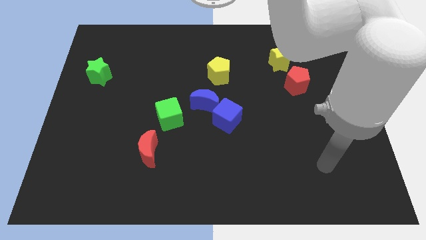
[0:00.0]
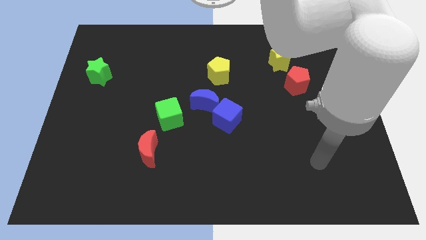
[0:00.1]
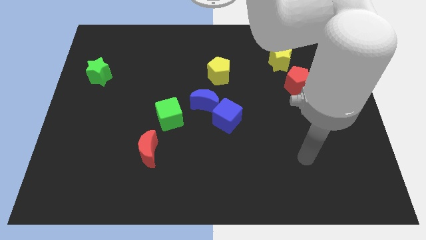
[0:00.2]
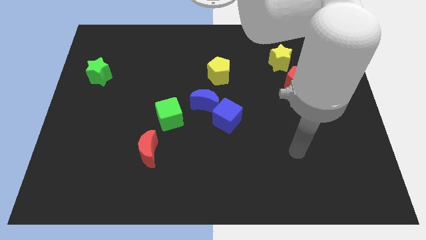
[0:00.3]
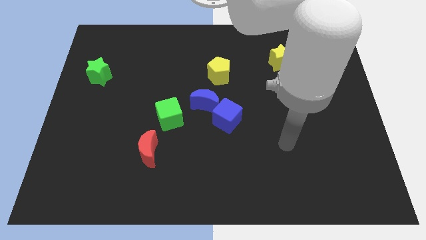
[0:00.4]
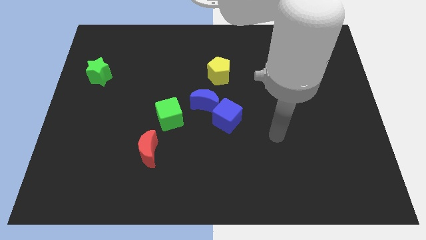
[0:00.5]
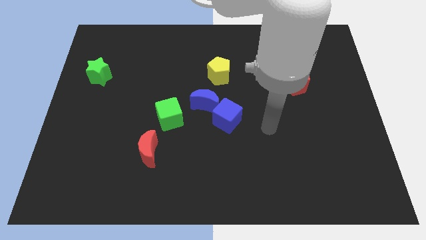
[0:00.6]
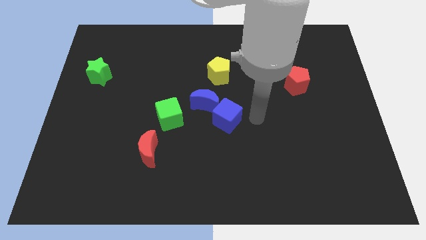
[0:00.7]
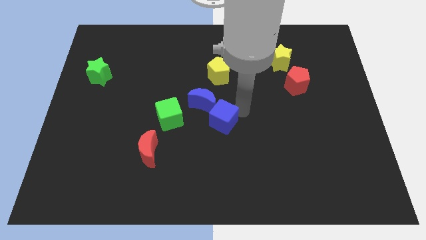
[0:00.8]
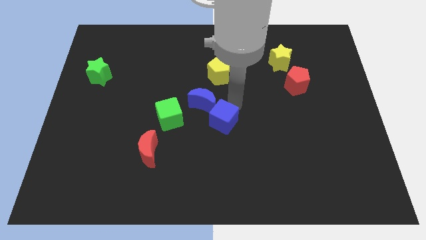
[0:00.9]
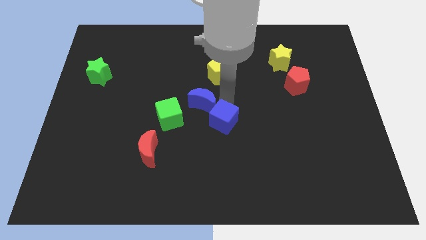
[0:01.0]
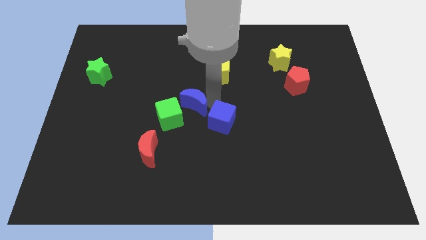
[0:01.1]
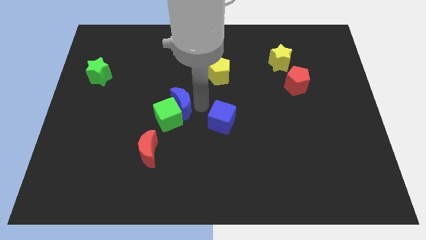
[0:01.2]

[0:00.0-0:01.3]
pull the blue cube apart from the blue moon

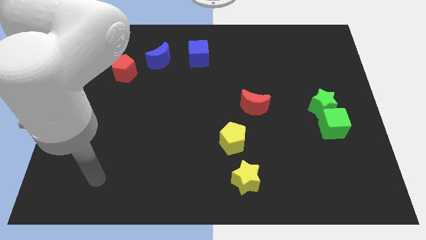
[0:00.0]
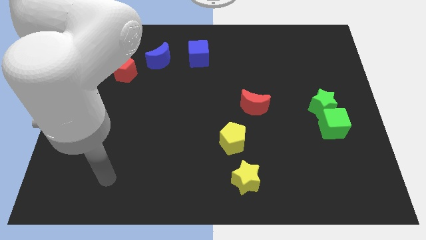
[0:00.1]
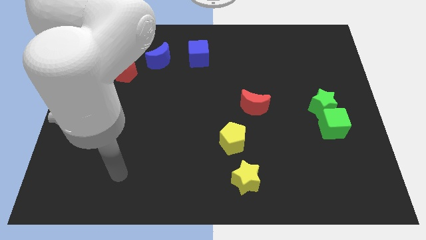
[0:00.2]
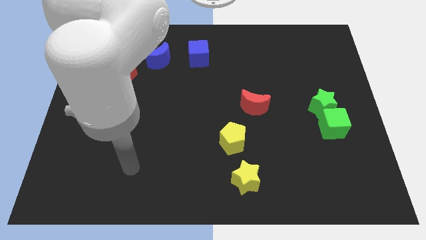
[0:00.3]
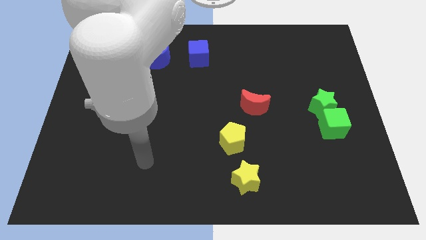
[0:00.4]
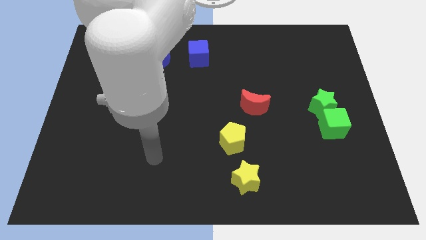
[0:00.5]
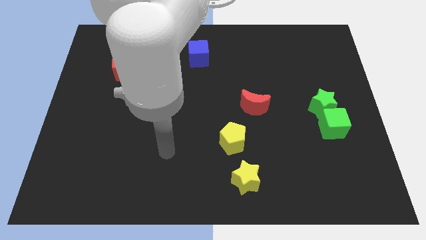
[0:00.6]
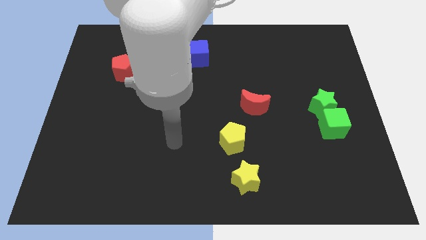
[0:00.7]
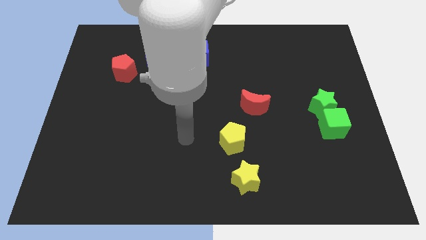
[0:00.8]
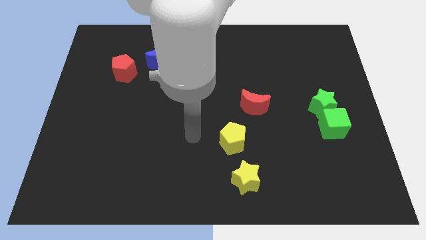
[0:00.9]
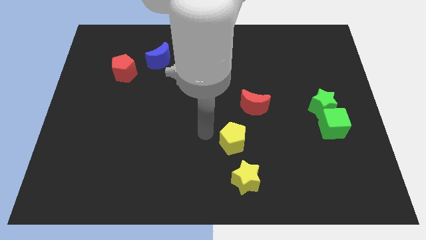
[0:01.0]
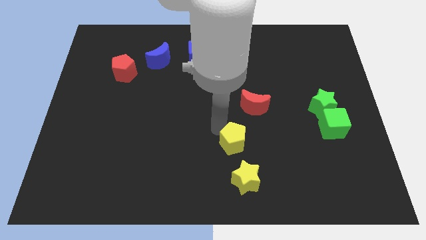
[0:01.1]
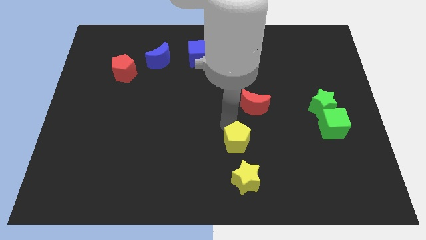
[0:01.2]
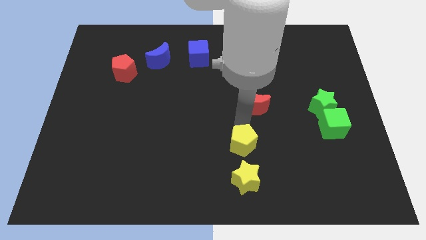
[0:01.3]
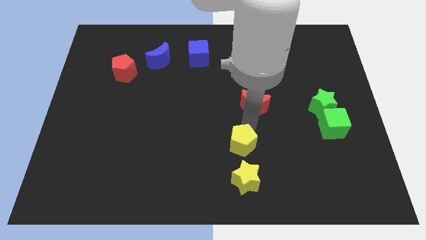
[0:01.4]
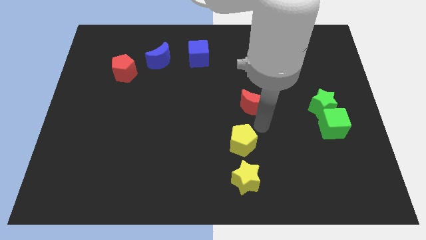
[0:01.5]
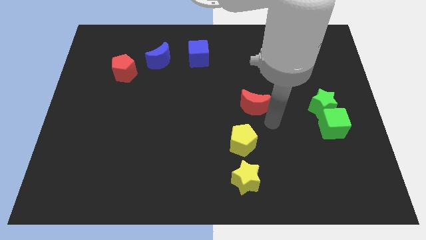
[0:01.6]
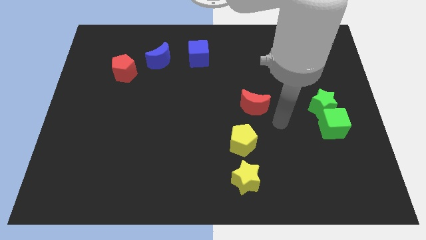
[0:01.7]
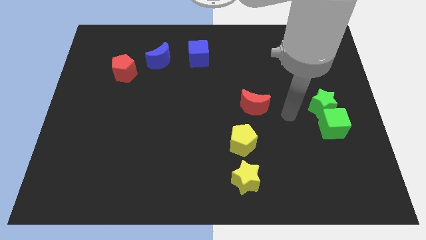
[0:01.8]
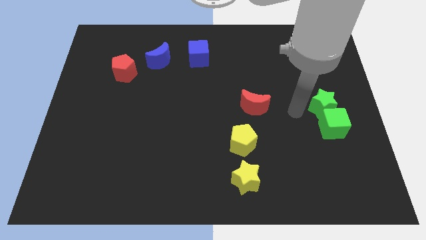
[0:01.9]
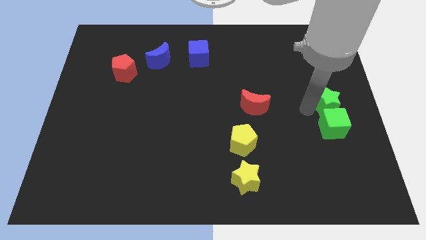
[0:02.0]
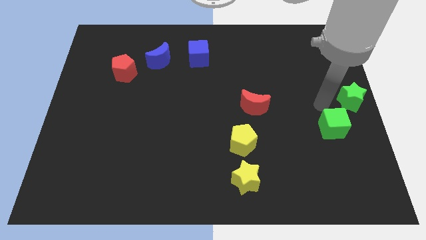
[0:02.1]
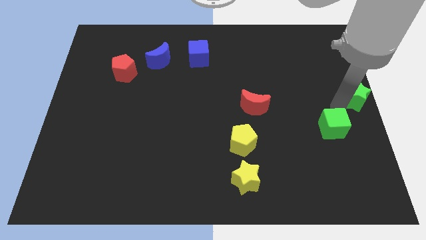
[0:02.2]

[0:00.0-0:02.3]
separate the green cube from the green star

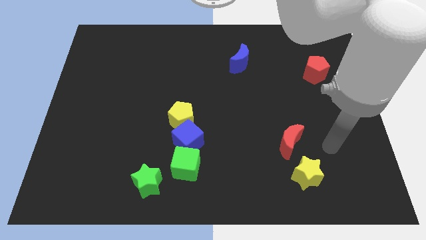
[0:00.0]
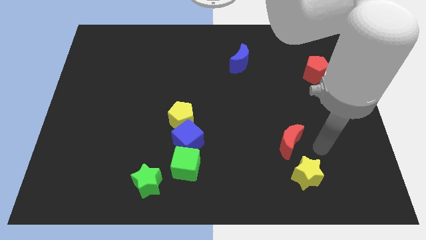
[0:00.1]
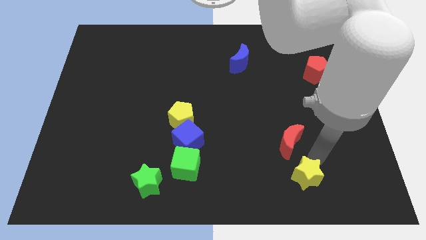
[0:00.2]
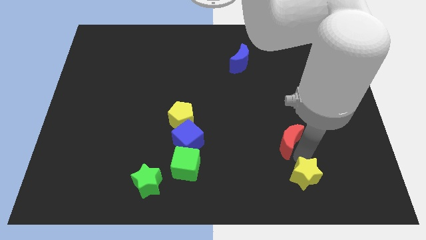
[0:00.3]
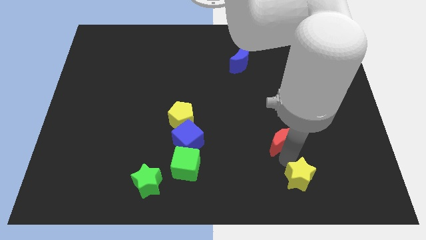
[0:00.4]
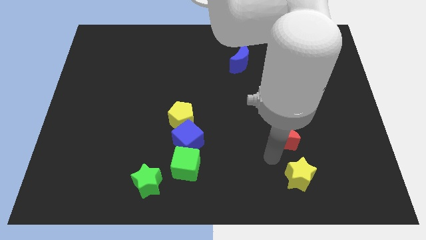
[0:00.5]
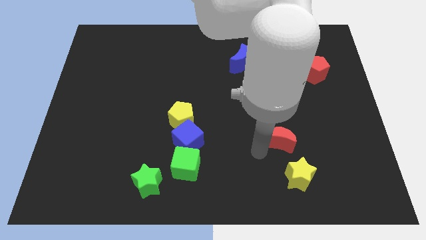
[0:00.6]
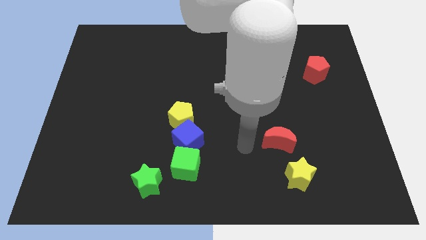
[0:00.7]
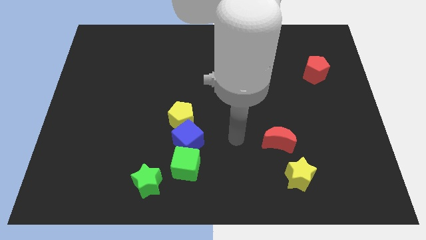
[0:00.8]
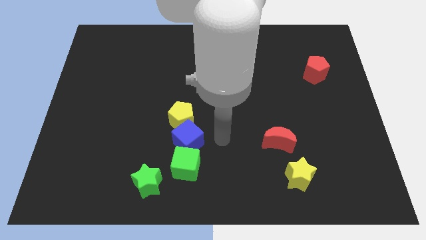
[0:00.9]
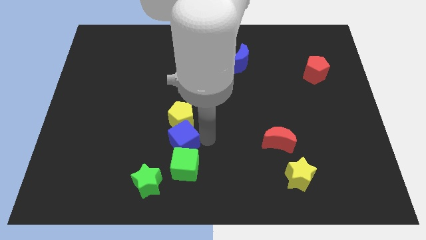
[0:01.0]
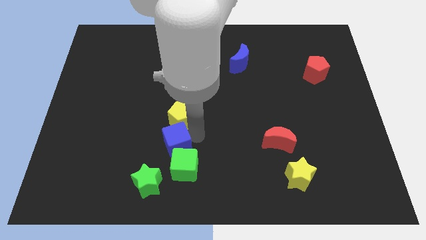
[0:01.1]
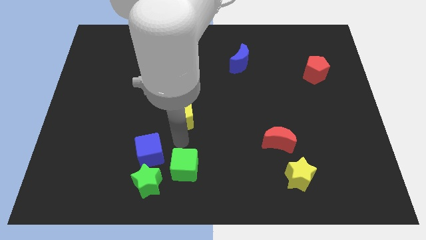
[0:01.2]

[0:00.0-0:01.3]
separate the yellow pentagon from the blue cube

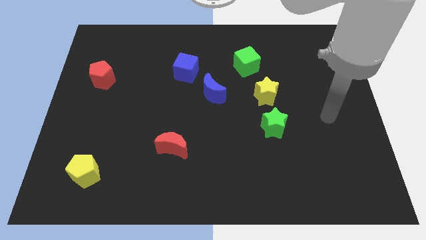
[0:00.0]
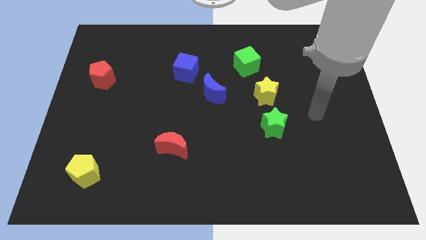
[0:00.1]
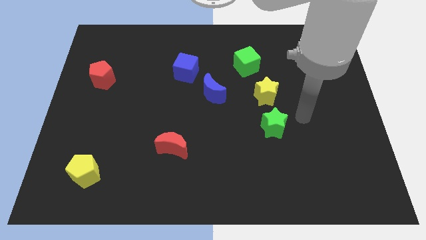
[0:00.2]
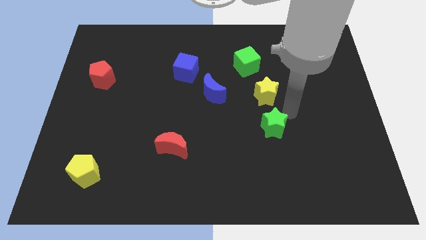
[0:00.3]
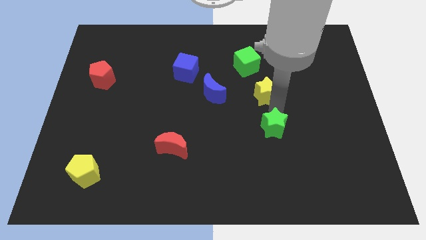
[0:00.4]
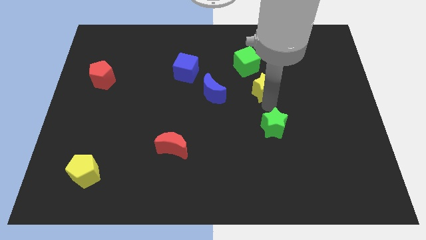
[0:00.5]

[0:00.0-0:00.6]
separate the green star from the yellow star

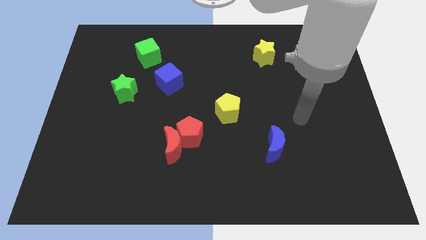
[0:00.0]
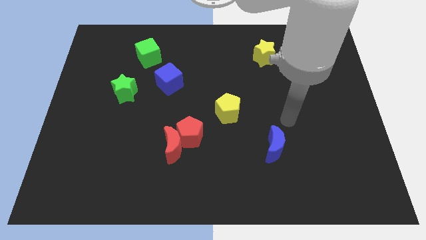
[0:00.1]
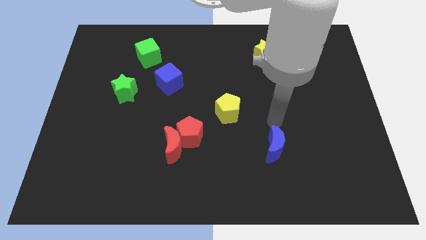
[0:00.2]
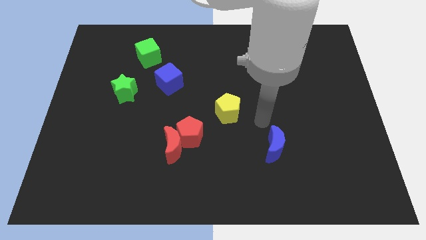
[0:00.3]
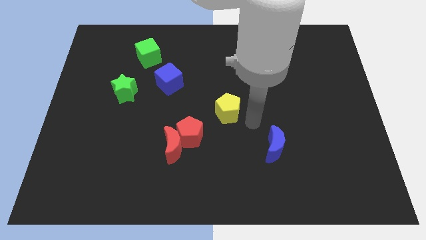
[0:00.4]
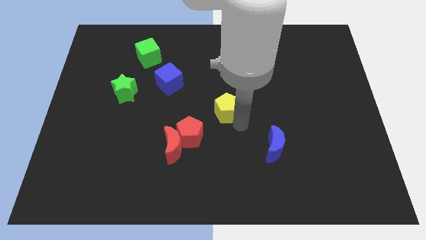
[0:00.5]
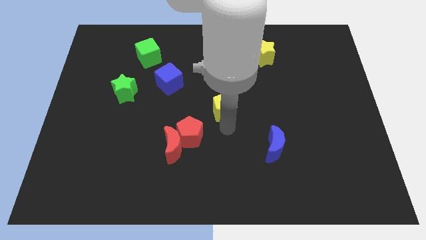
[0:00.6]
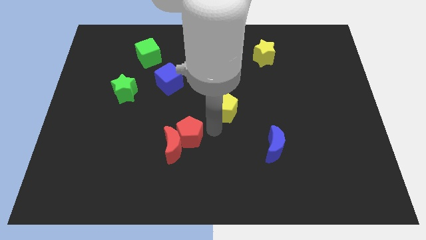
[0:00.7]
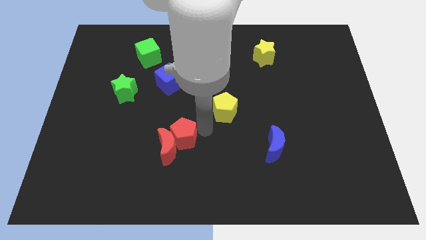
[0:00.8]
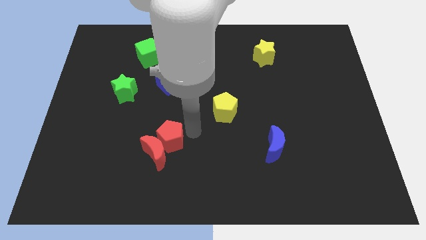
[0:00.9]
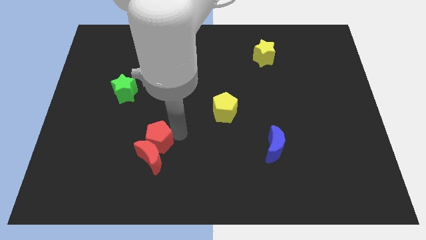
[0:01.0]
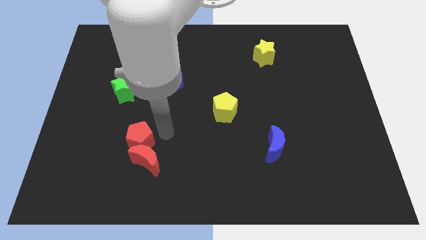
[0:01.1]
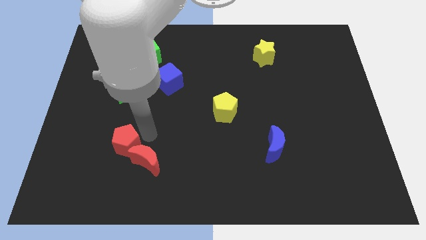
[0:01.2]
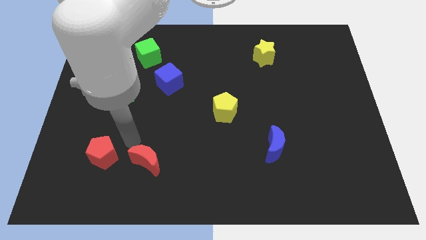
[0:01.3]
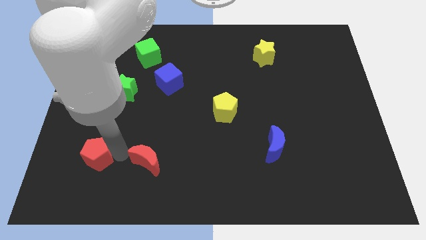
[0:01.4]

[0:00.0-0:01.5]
separate the red moon from the red pentagon

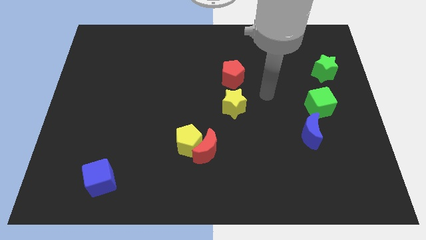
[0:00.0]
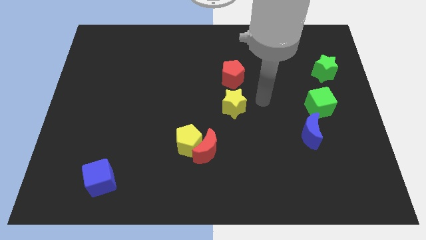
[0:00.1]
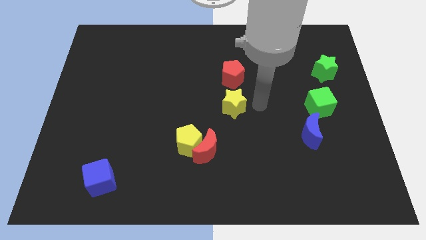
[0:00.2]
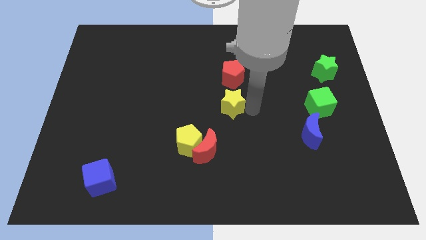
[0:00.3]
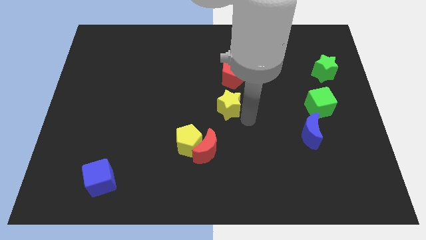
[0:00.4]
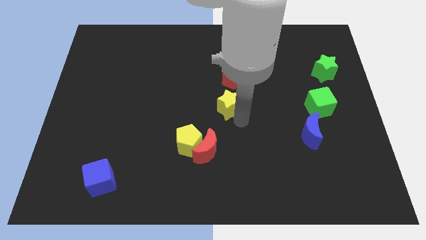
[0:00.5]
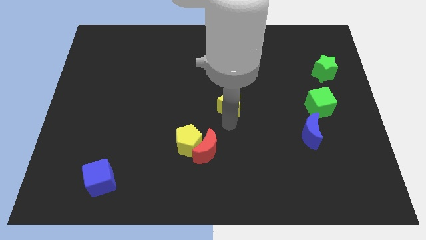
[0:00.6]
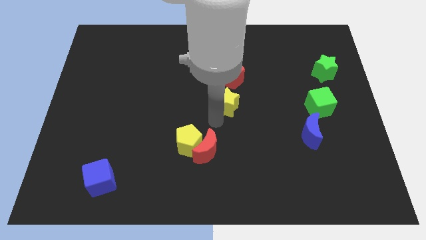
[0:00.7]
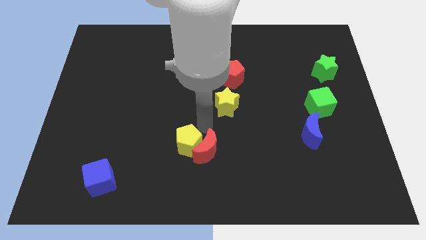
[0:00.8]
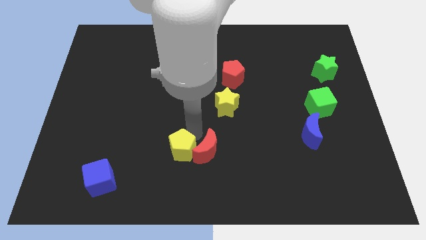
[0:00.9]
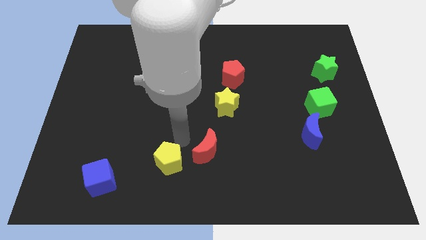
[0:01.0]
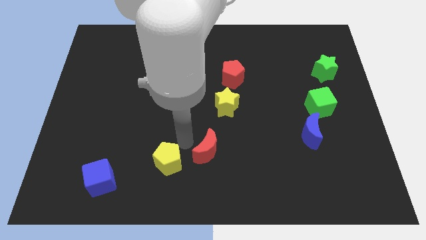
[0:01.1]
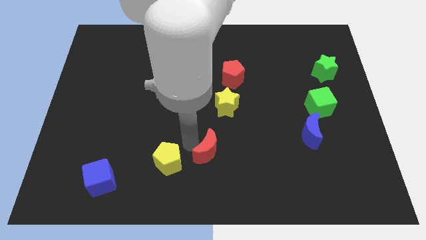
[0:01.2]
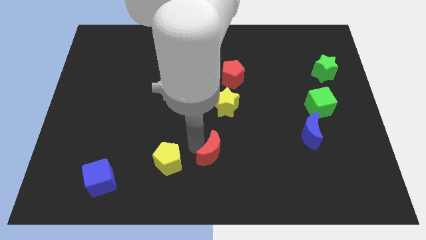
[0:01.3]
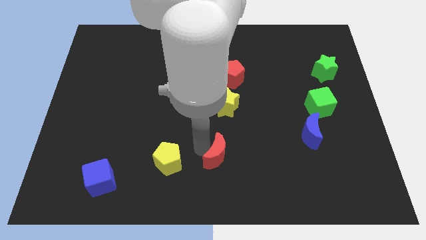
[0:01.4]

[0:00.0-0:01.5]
pull the red moon apart from the yellow pentagon

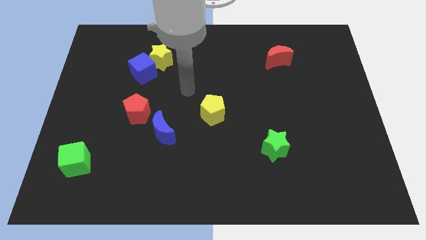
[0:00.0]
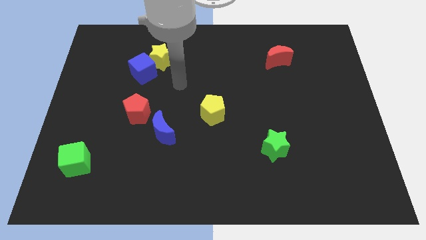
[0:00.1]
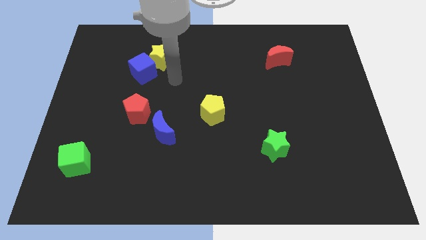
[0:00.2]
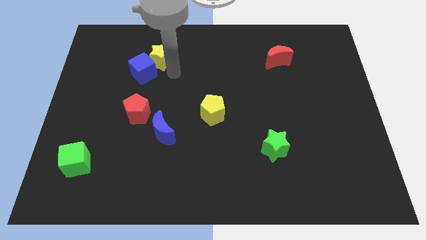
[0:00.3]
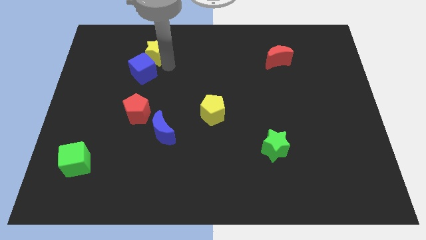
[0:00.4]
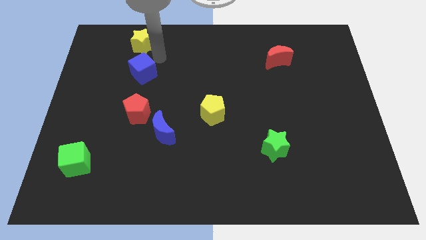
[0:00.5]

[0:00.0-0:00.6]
separate the blue cube from the yellow star

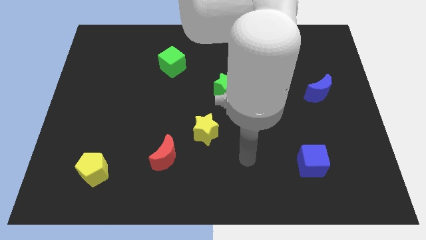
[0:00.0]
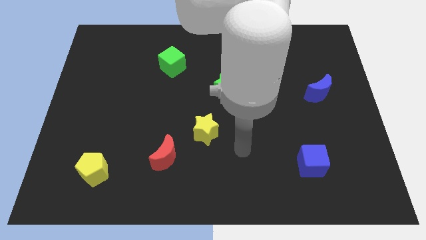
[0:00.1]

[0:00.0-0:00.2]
pull the red pentagon apart from the green star
